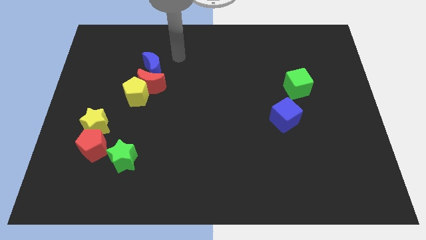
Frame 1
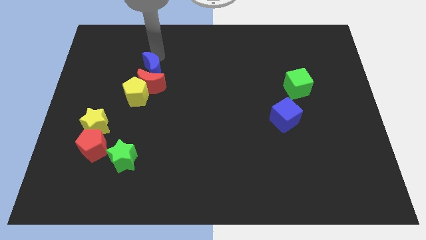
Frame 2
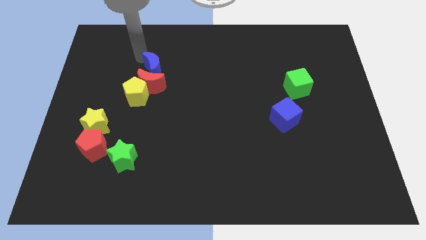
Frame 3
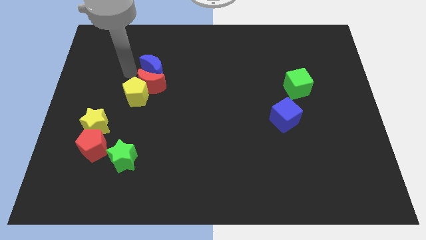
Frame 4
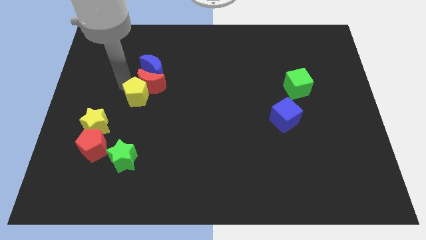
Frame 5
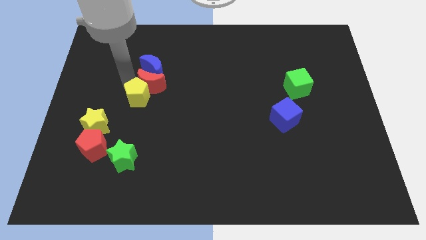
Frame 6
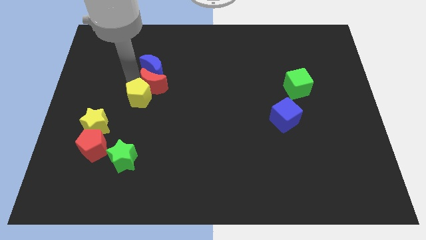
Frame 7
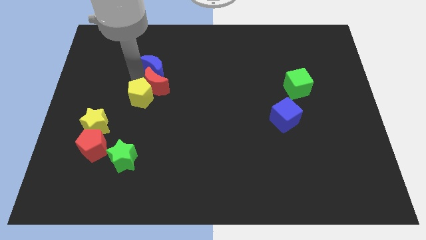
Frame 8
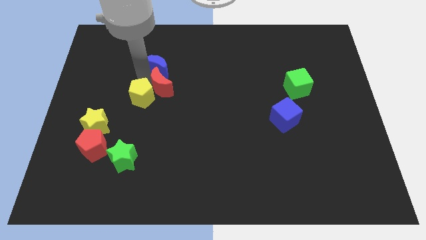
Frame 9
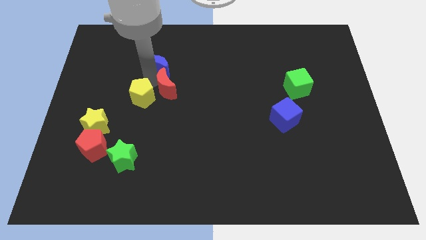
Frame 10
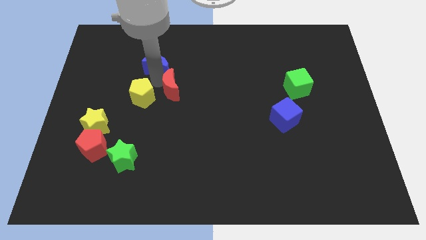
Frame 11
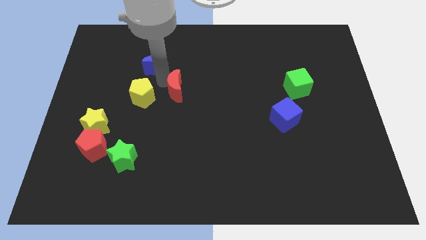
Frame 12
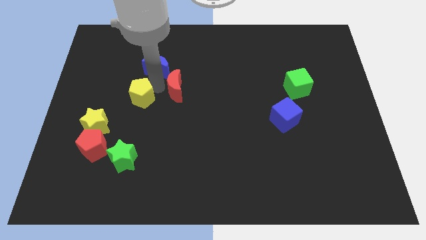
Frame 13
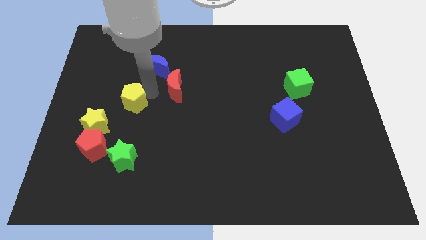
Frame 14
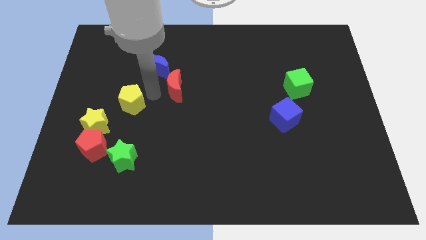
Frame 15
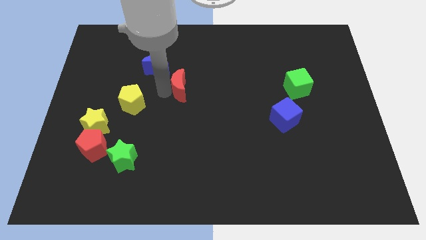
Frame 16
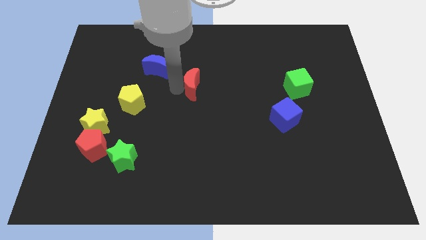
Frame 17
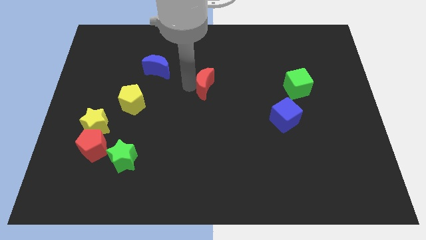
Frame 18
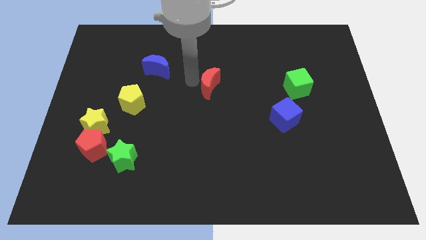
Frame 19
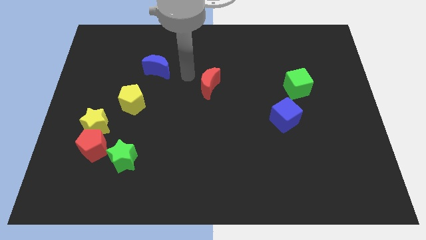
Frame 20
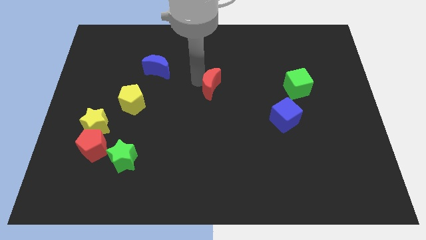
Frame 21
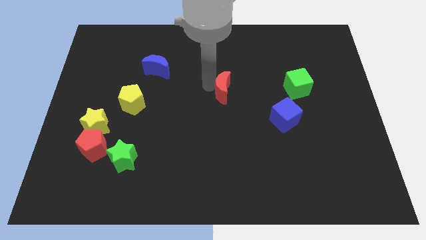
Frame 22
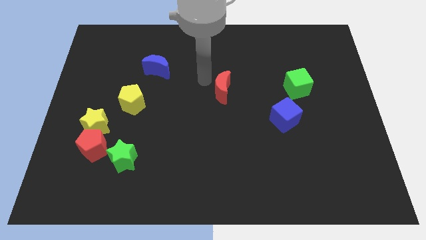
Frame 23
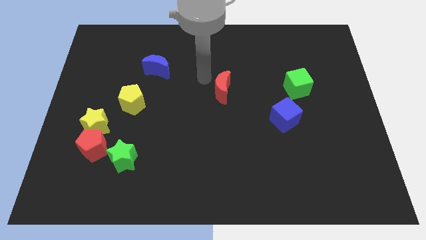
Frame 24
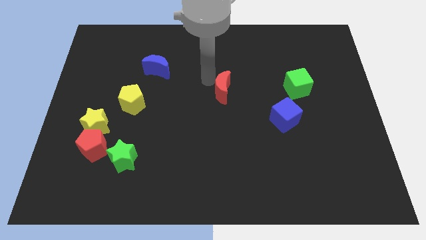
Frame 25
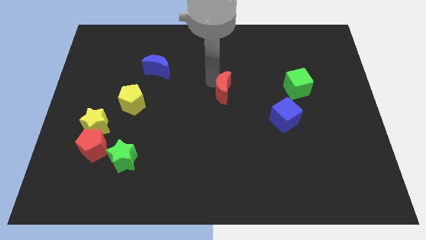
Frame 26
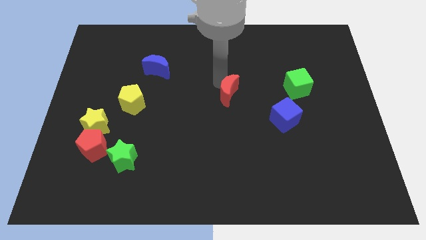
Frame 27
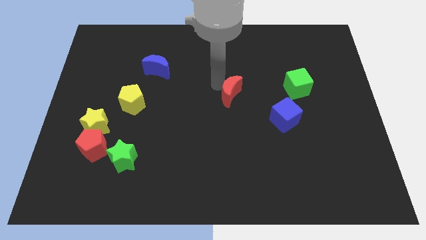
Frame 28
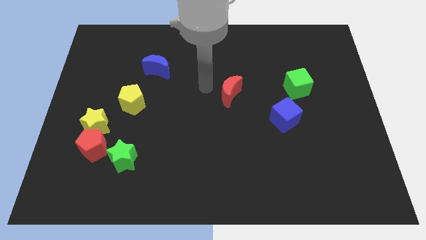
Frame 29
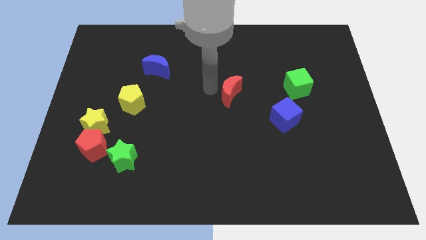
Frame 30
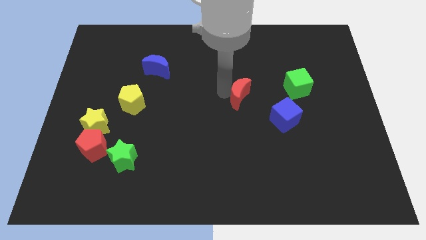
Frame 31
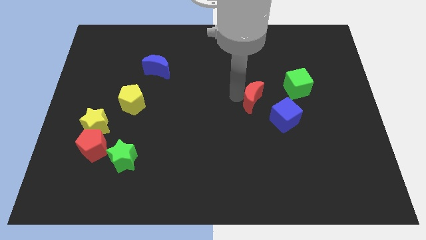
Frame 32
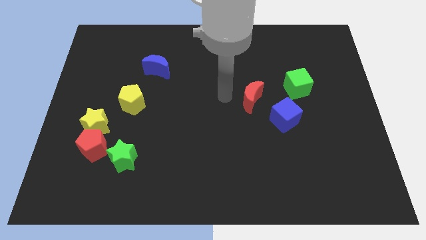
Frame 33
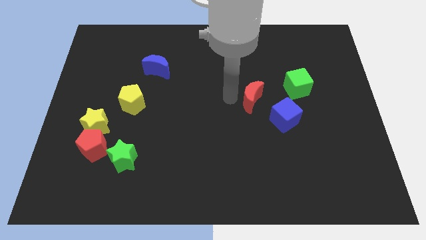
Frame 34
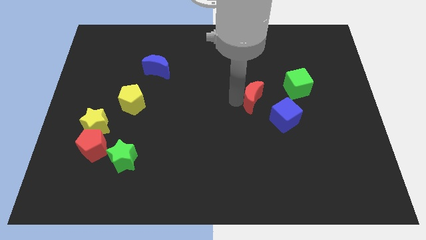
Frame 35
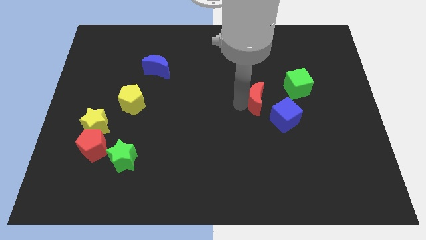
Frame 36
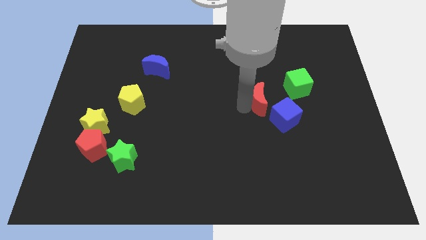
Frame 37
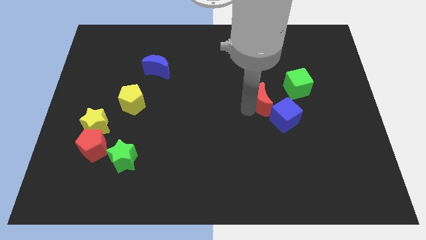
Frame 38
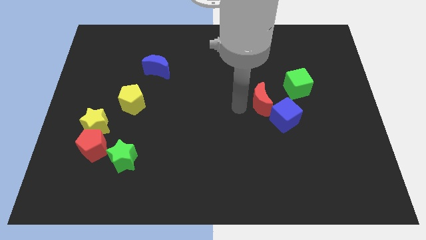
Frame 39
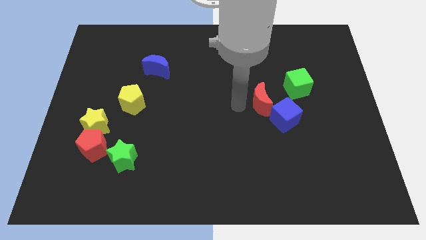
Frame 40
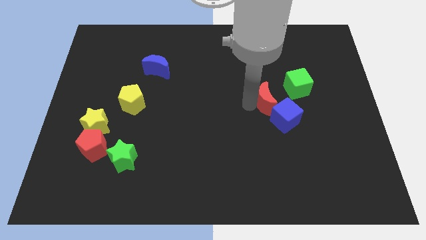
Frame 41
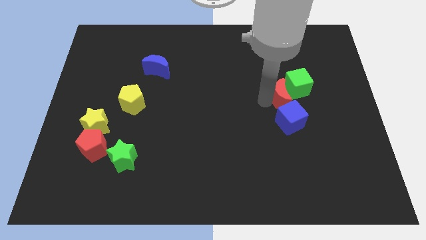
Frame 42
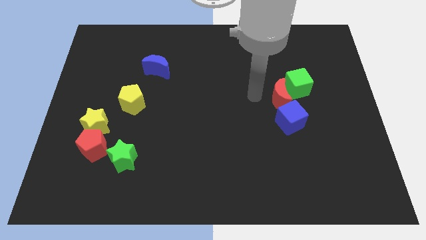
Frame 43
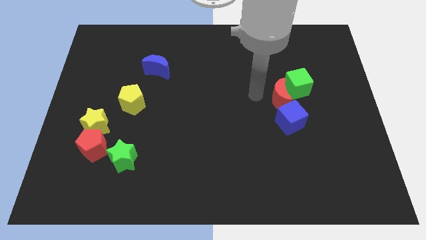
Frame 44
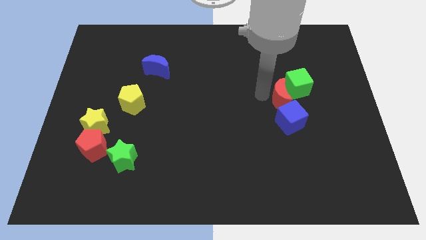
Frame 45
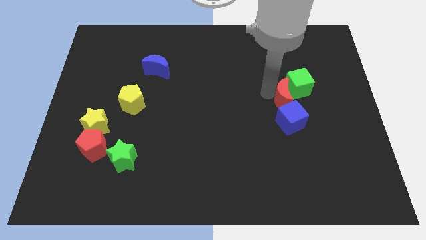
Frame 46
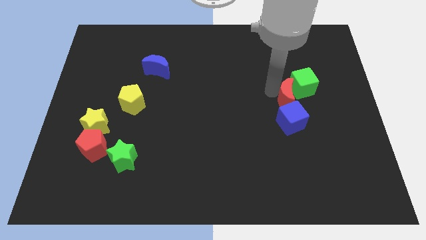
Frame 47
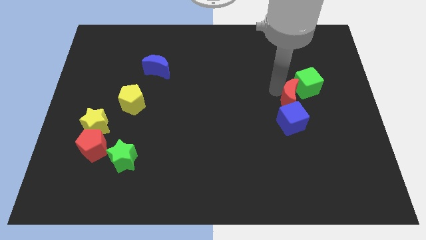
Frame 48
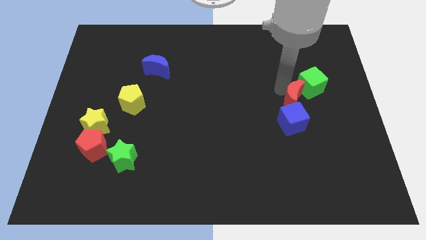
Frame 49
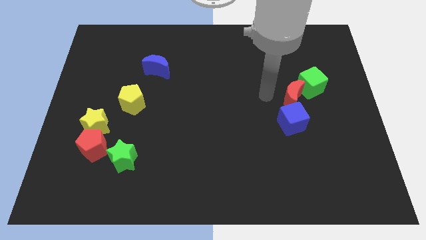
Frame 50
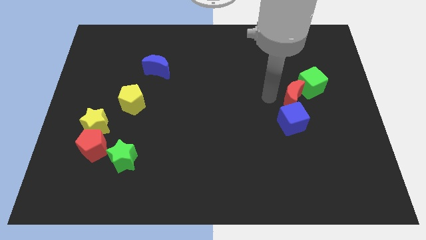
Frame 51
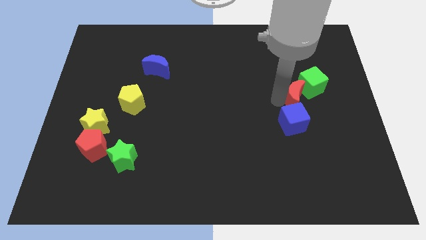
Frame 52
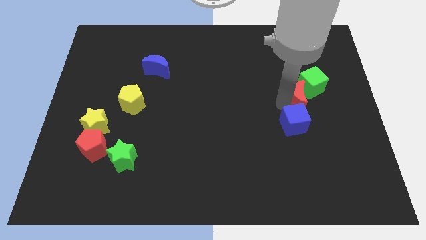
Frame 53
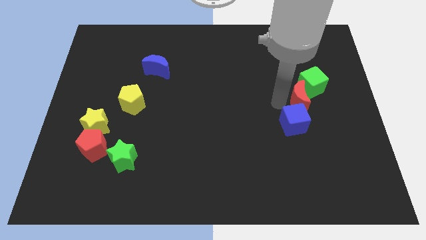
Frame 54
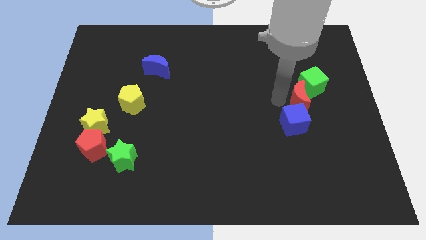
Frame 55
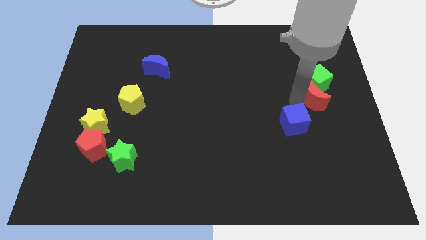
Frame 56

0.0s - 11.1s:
put the red moon diagonally down and to the right of the green cube

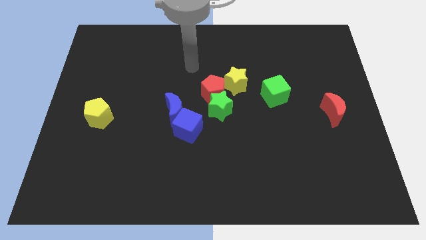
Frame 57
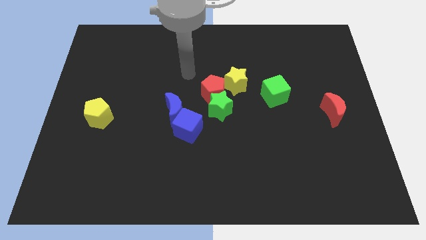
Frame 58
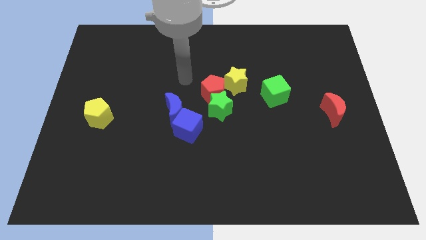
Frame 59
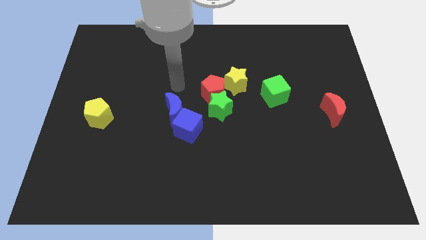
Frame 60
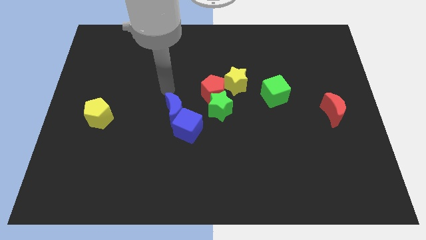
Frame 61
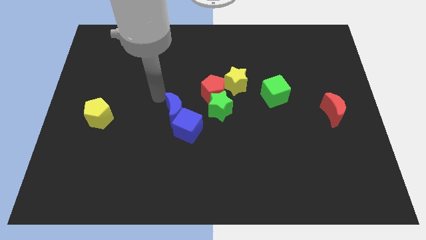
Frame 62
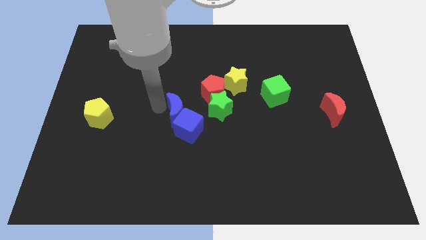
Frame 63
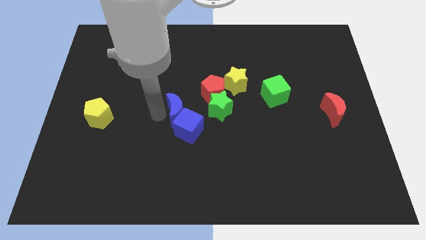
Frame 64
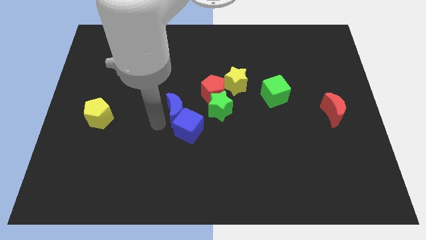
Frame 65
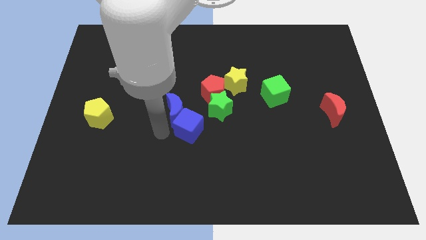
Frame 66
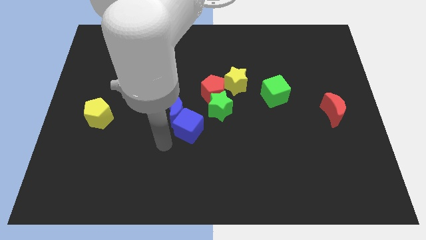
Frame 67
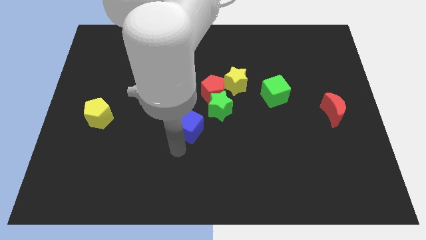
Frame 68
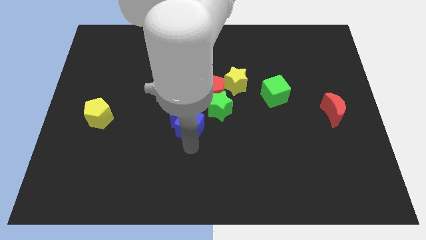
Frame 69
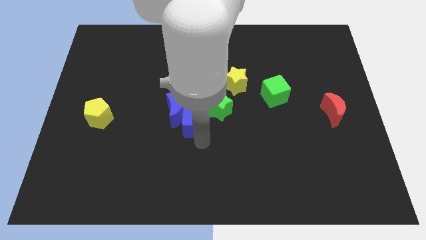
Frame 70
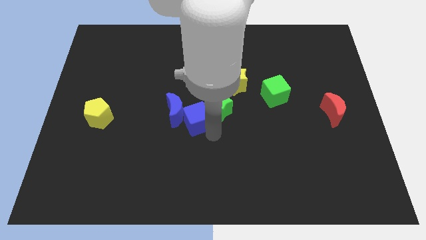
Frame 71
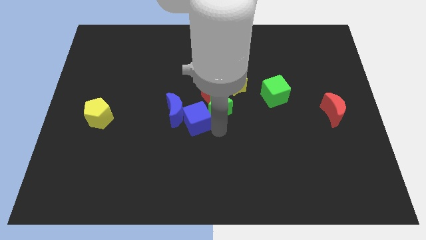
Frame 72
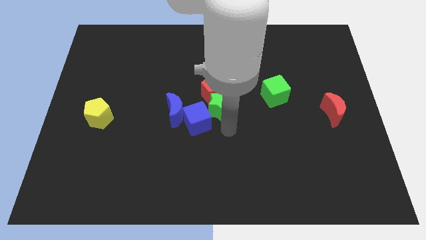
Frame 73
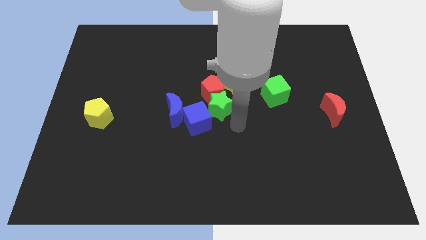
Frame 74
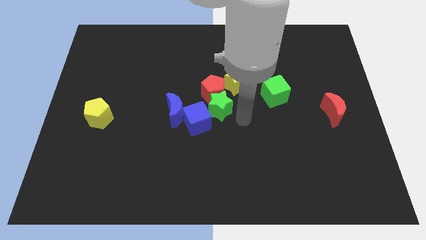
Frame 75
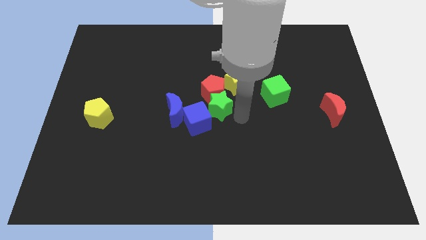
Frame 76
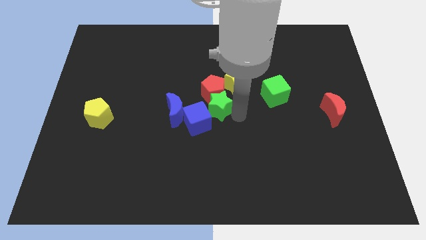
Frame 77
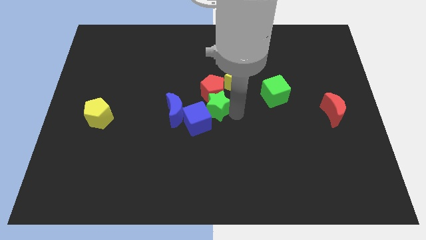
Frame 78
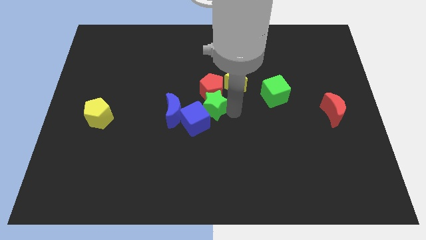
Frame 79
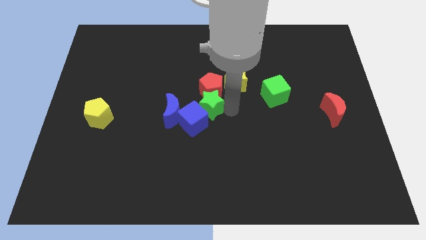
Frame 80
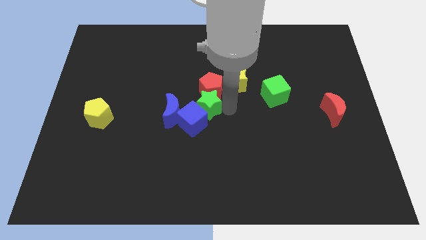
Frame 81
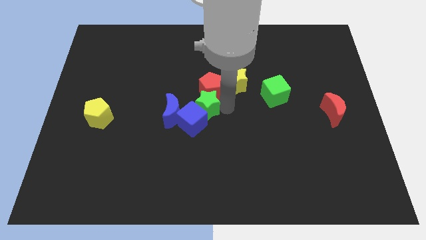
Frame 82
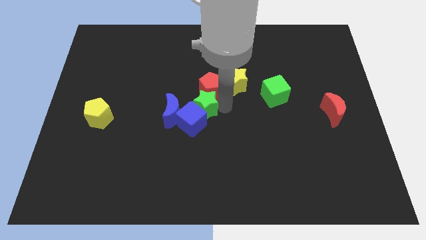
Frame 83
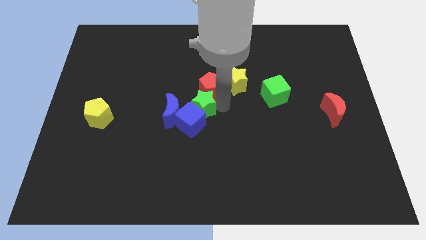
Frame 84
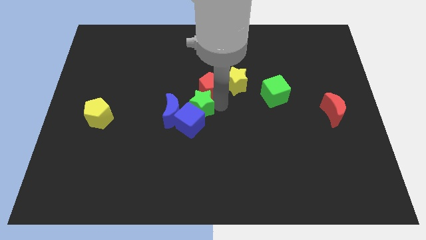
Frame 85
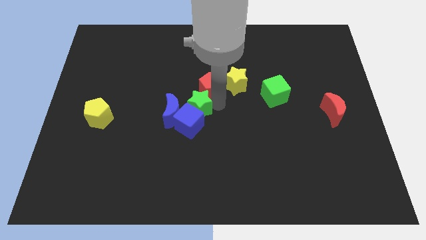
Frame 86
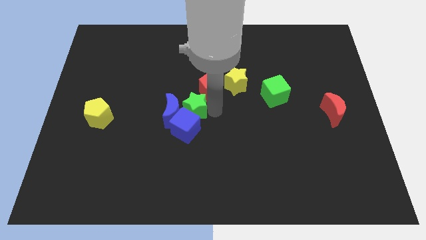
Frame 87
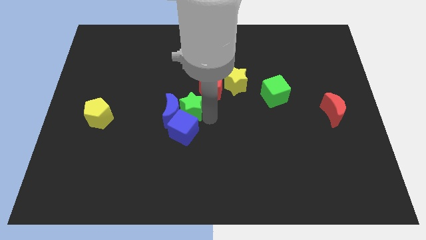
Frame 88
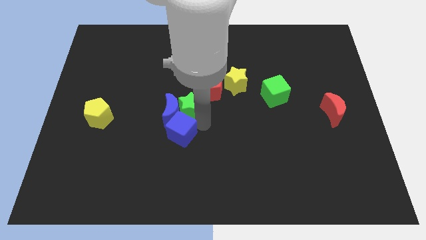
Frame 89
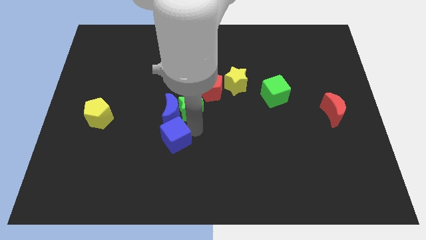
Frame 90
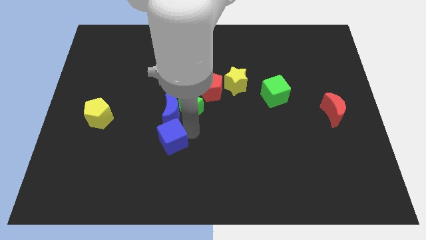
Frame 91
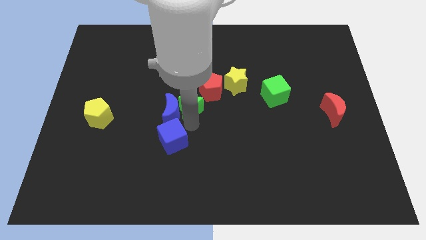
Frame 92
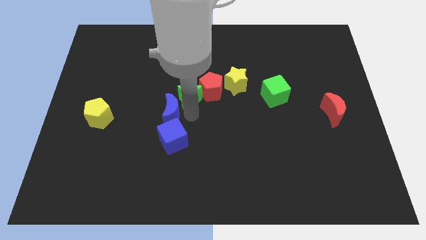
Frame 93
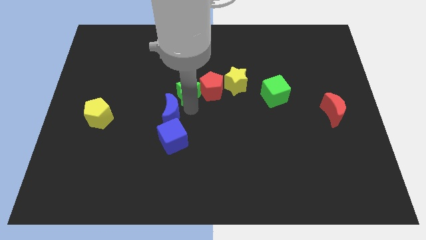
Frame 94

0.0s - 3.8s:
move the green star diagonally up and to the left of the red pentagon
